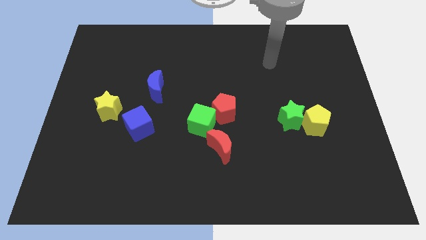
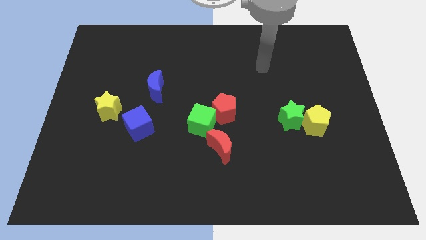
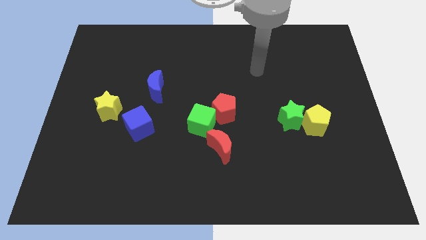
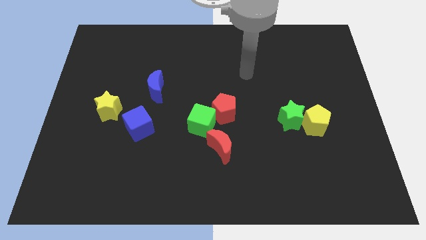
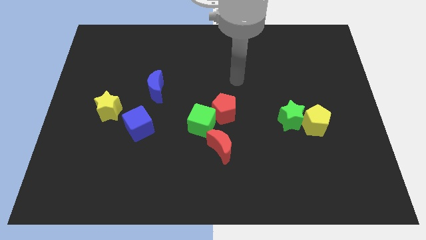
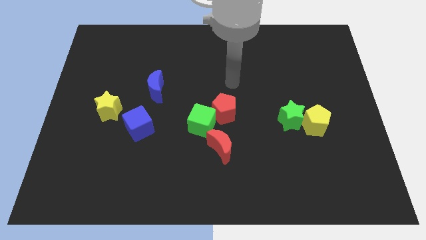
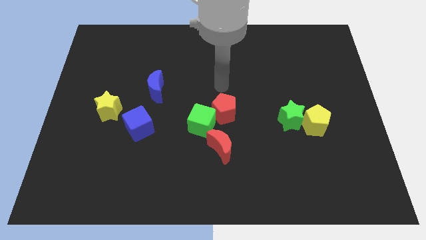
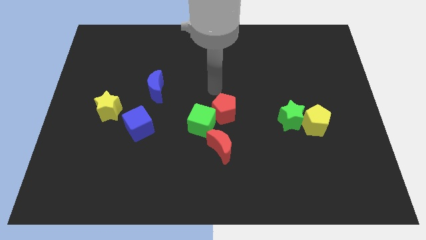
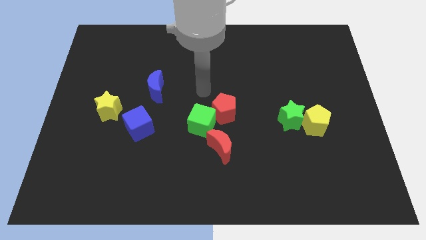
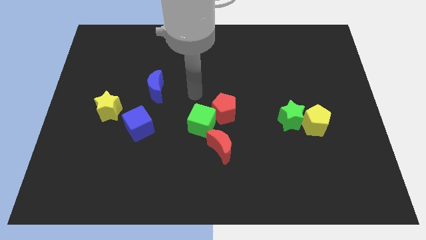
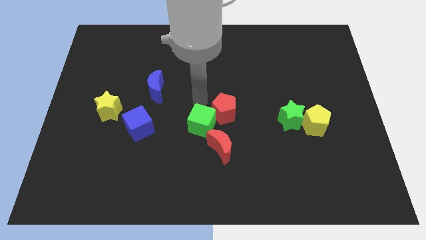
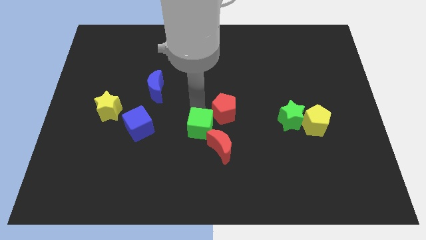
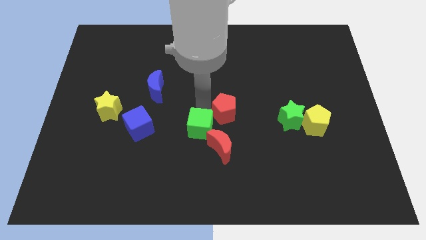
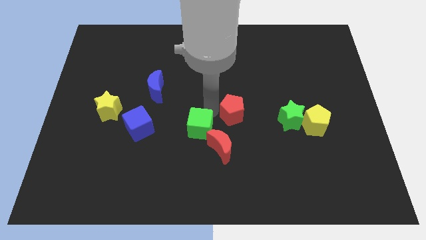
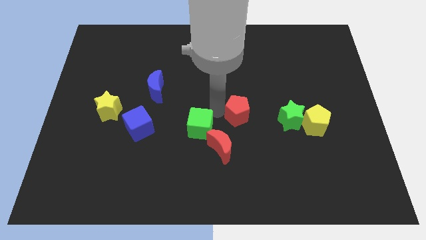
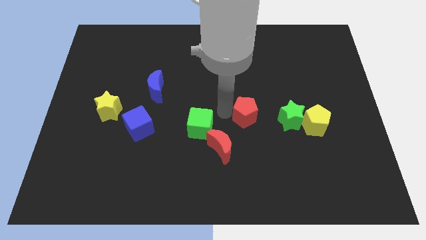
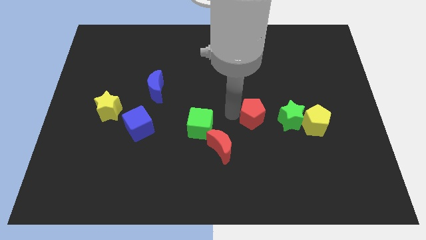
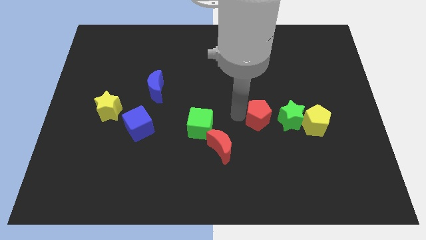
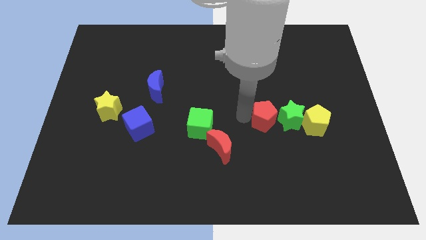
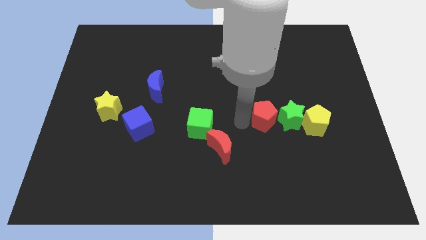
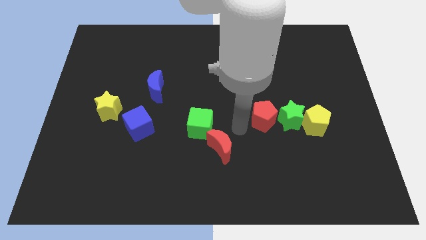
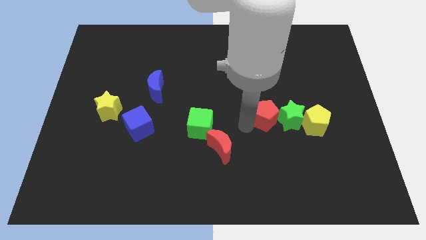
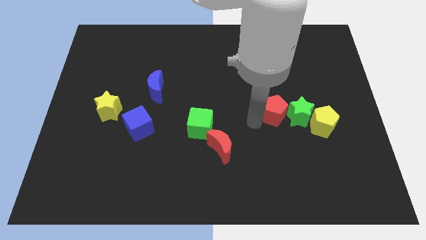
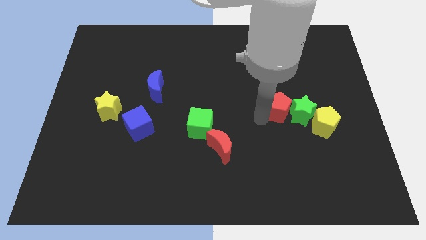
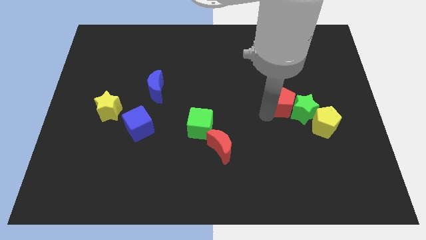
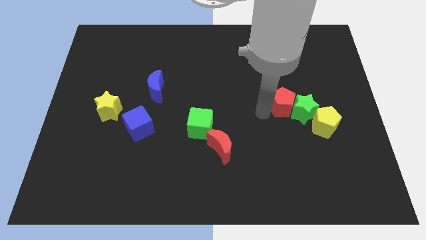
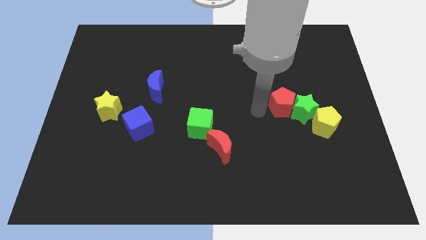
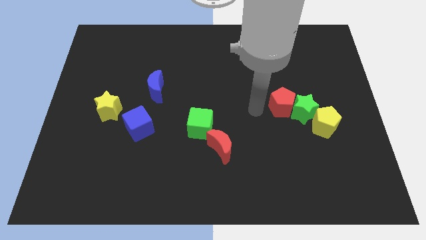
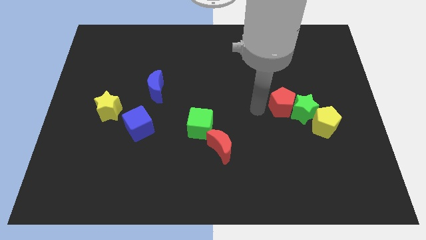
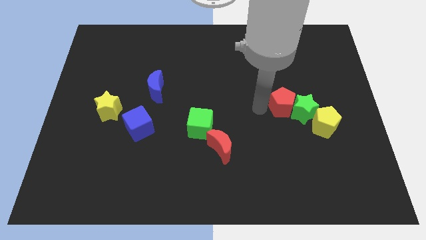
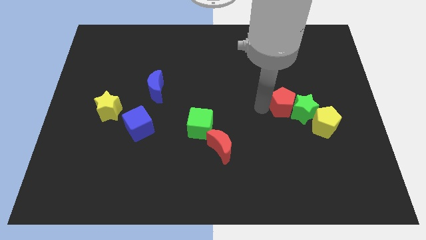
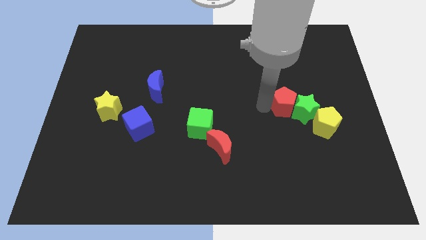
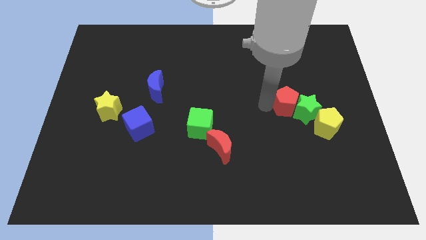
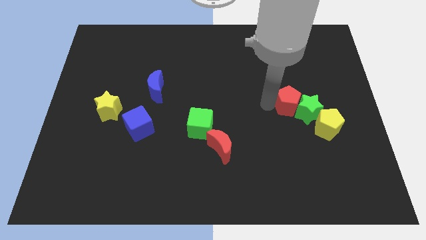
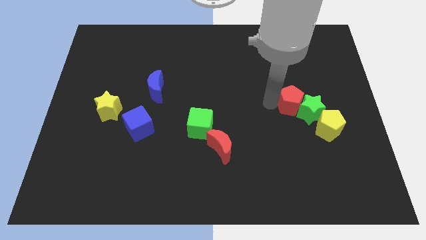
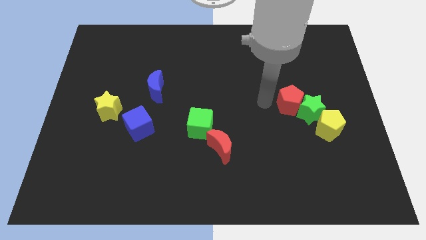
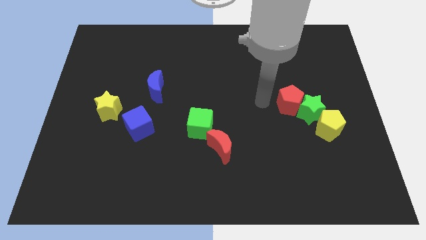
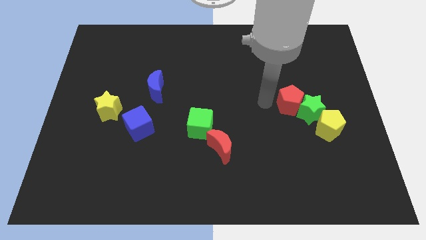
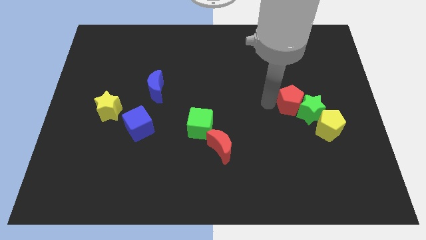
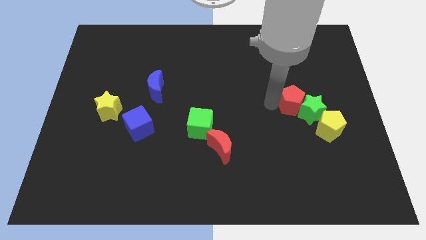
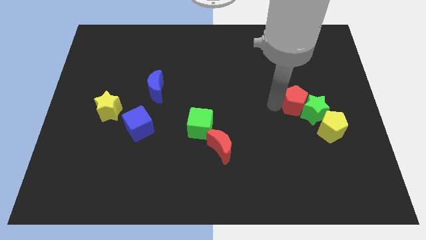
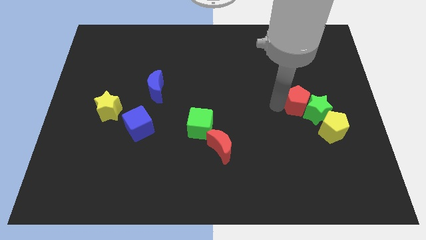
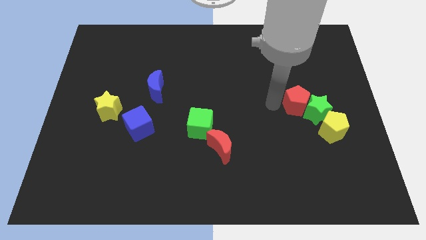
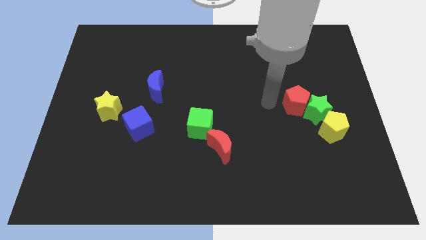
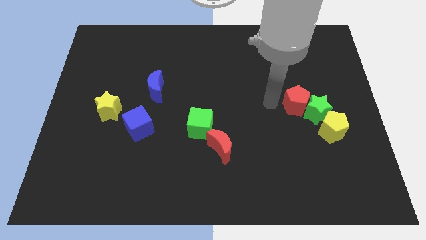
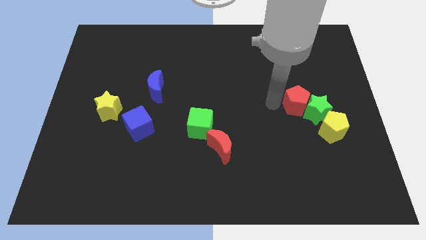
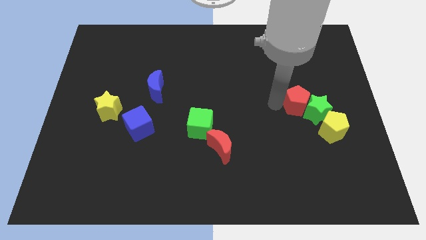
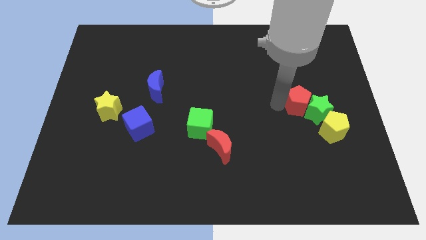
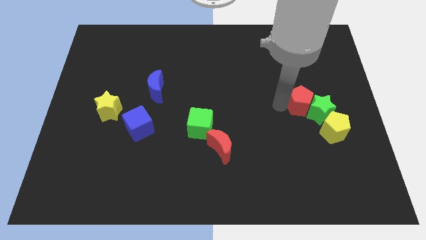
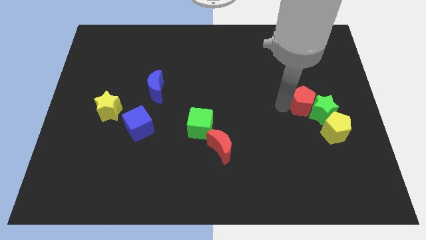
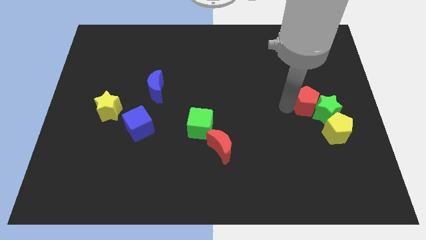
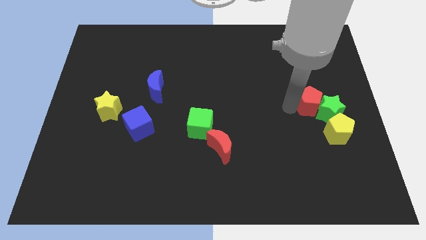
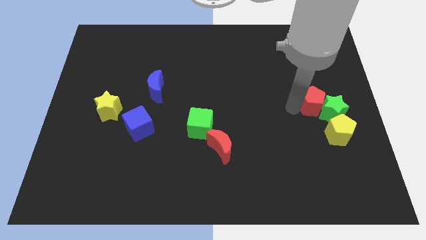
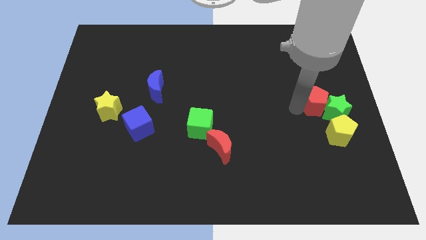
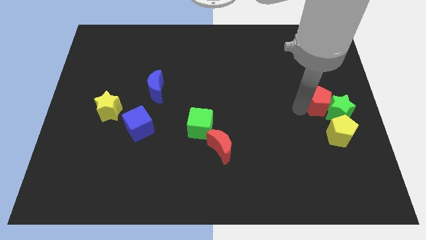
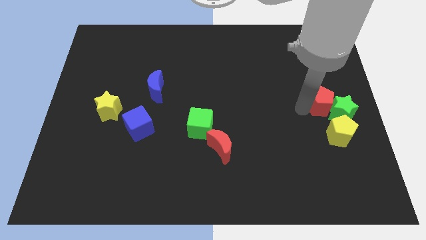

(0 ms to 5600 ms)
move the red pentagon to the right side of the board
